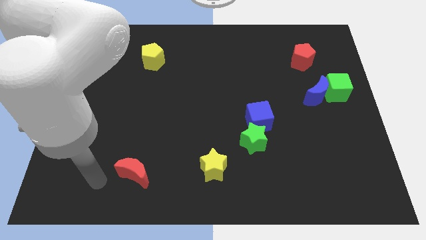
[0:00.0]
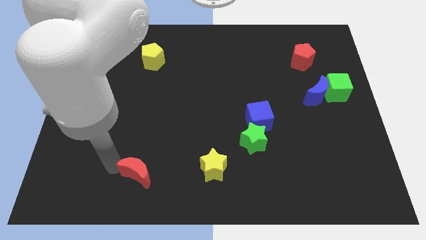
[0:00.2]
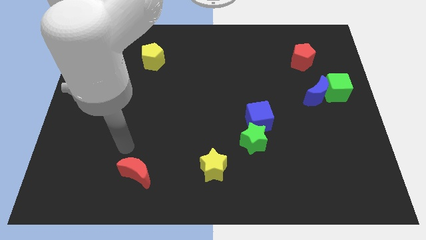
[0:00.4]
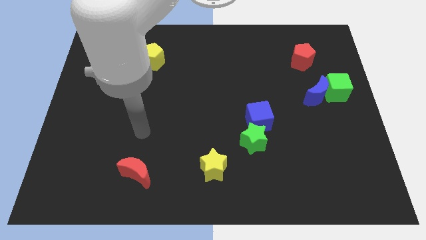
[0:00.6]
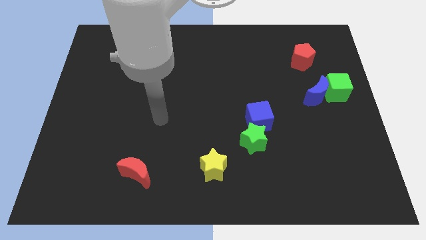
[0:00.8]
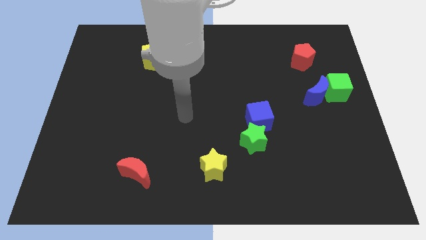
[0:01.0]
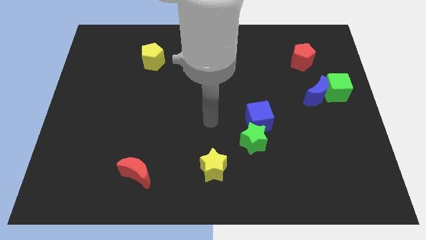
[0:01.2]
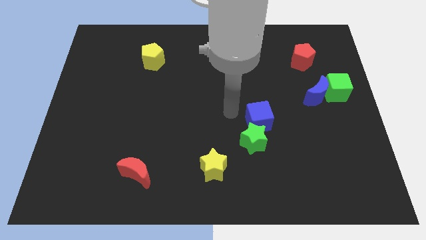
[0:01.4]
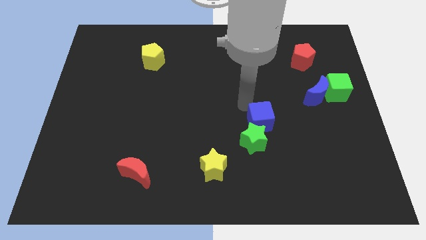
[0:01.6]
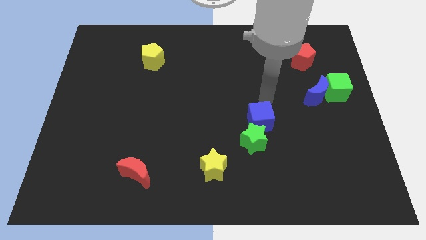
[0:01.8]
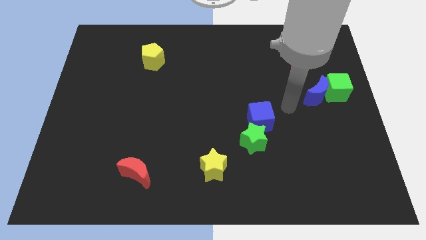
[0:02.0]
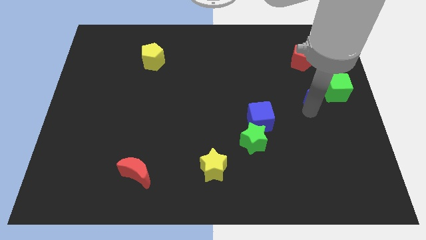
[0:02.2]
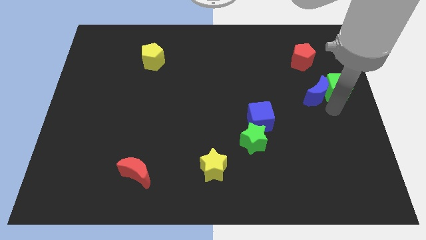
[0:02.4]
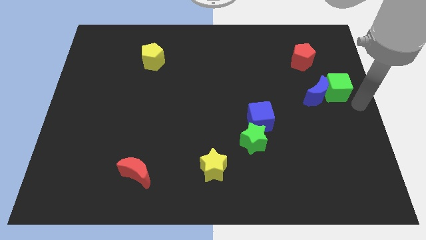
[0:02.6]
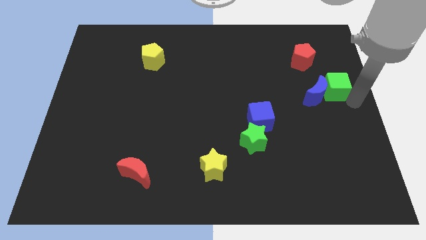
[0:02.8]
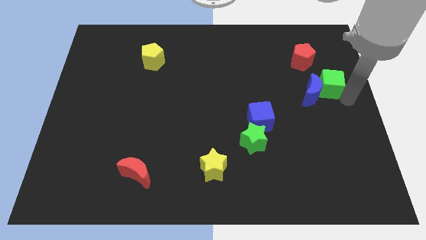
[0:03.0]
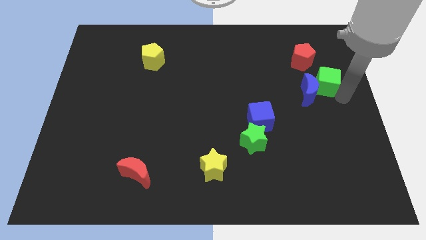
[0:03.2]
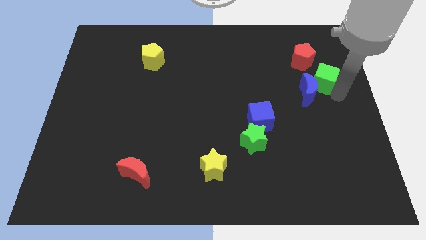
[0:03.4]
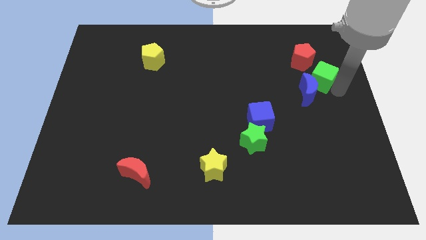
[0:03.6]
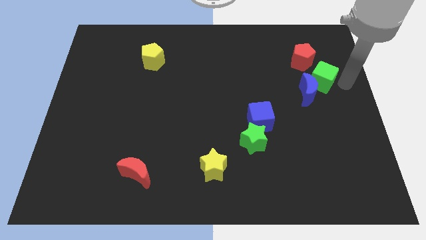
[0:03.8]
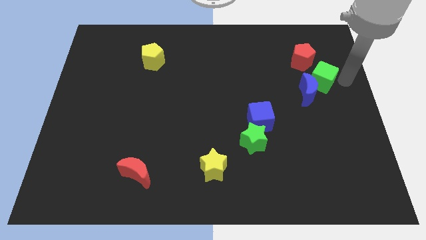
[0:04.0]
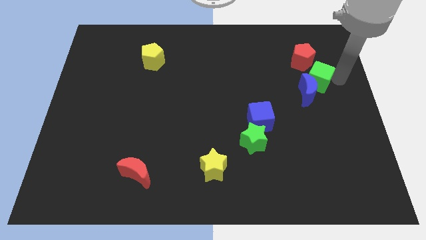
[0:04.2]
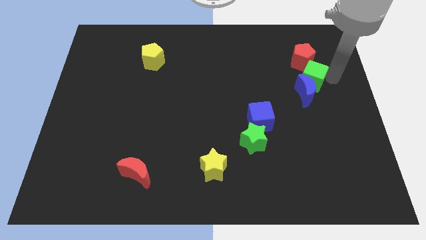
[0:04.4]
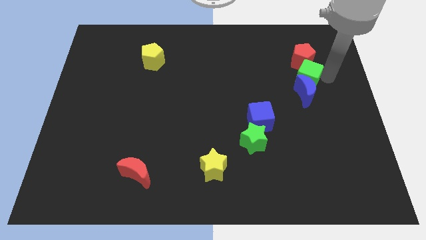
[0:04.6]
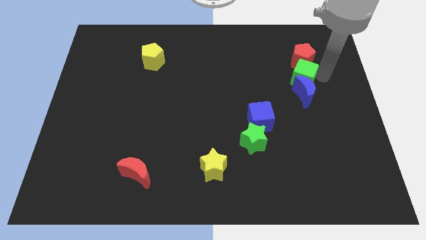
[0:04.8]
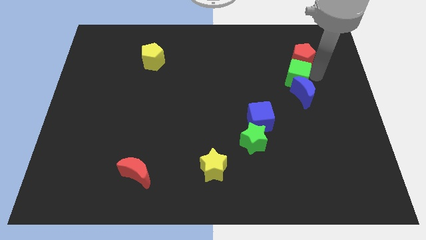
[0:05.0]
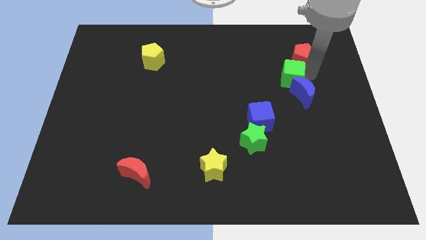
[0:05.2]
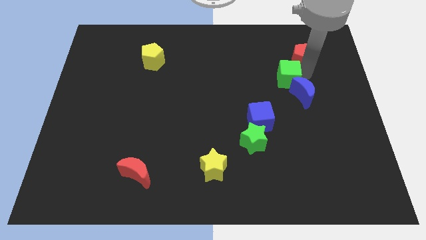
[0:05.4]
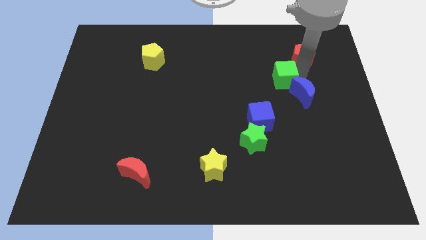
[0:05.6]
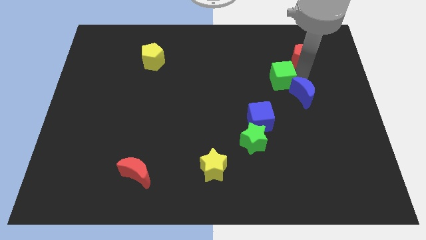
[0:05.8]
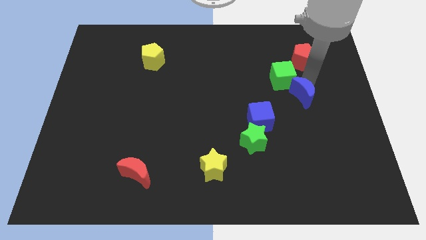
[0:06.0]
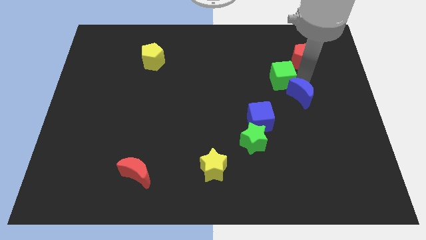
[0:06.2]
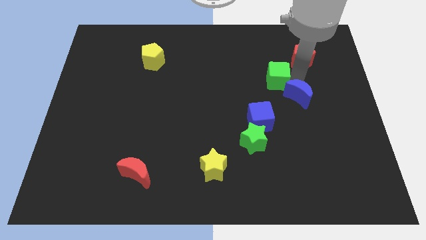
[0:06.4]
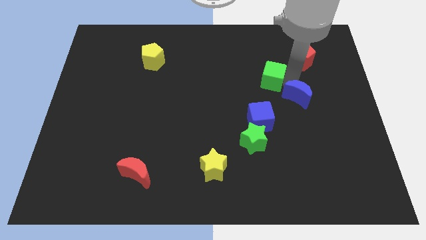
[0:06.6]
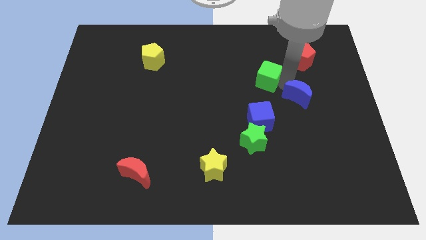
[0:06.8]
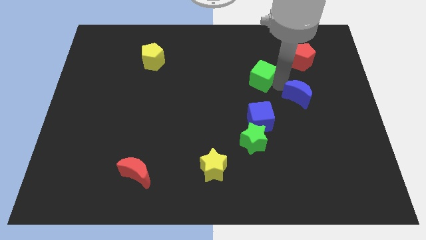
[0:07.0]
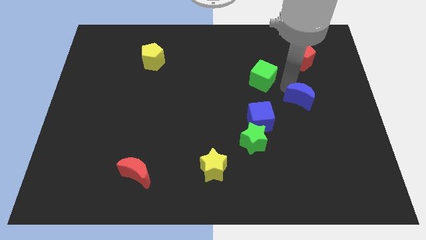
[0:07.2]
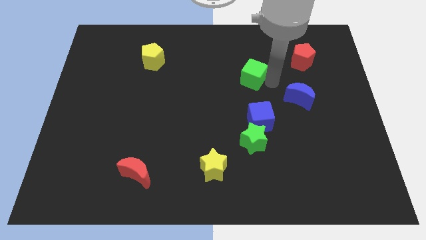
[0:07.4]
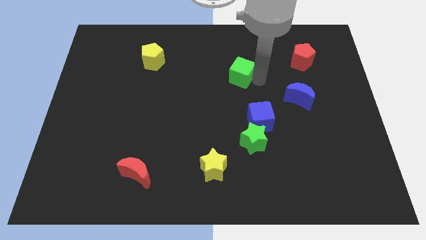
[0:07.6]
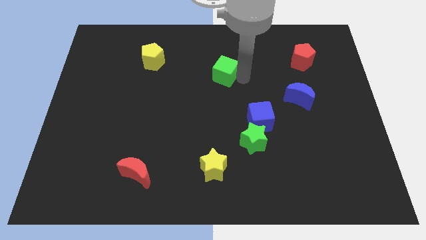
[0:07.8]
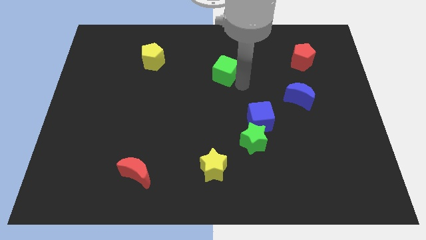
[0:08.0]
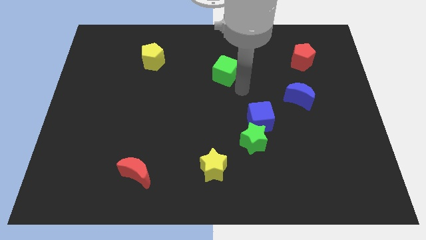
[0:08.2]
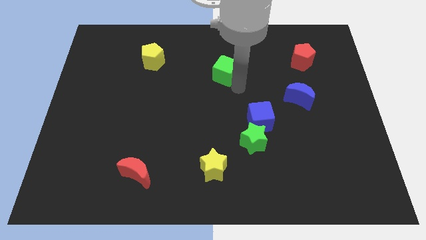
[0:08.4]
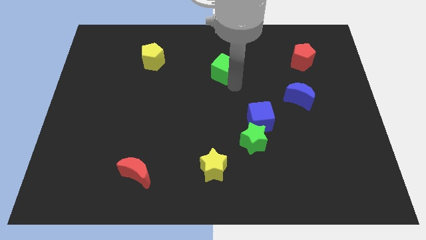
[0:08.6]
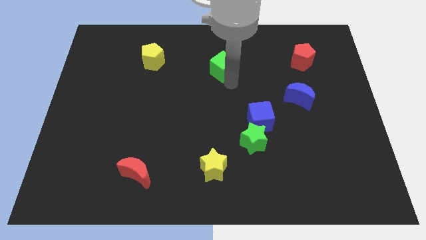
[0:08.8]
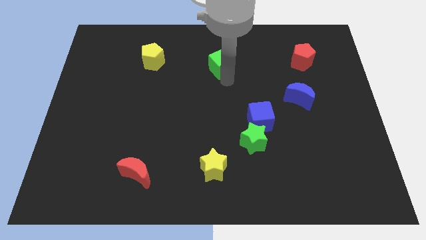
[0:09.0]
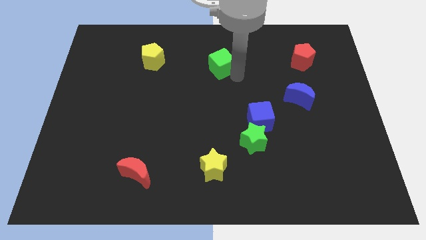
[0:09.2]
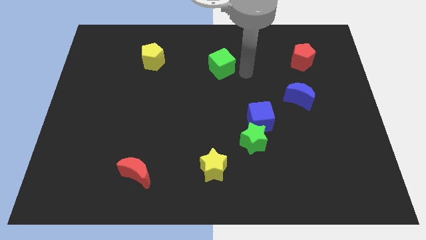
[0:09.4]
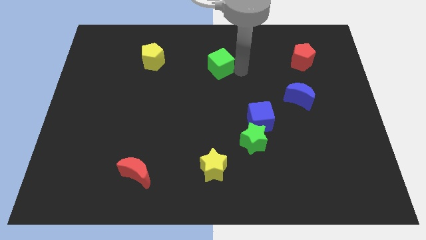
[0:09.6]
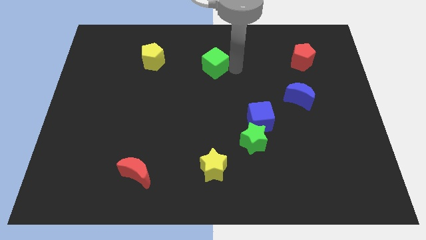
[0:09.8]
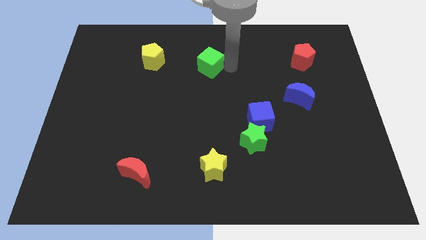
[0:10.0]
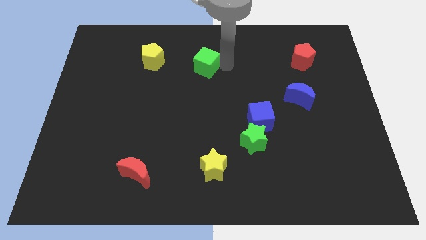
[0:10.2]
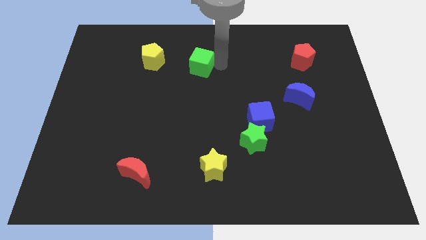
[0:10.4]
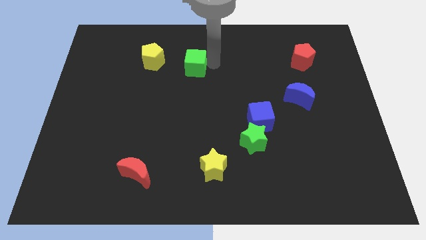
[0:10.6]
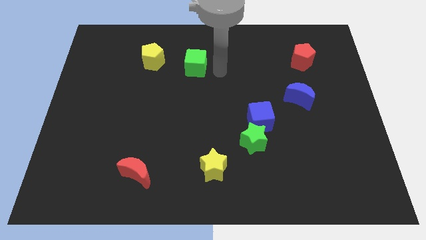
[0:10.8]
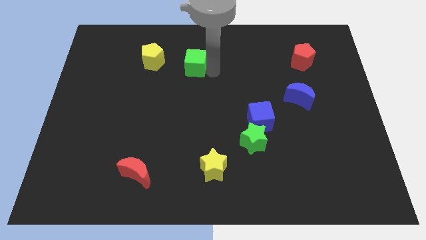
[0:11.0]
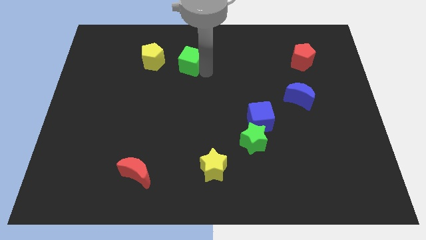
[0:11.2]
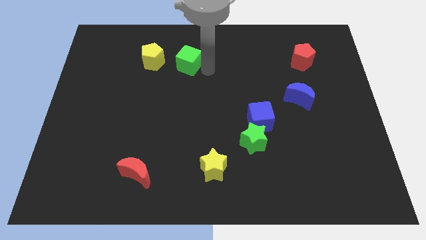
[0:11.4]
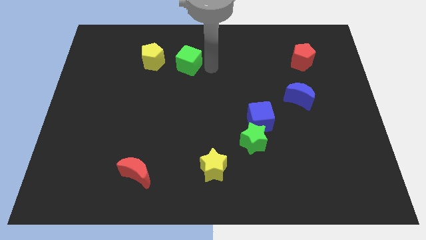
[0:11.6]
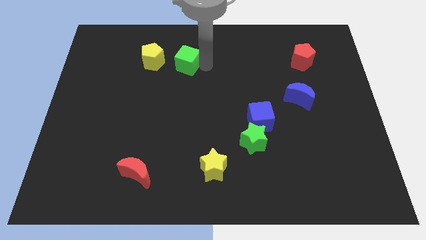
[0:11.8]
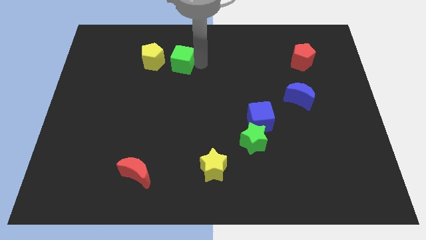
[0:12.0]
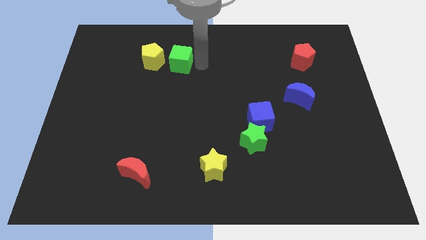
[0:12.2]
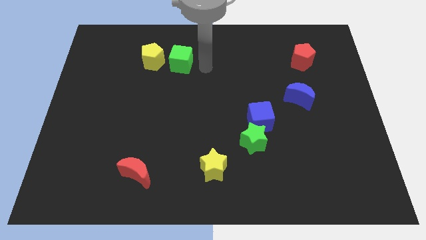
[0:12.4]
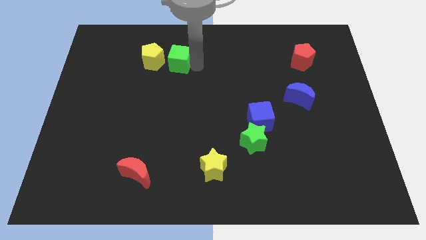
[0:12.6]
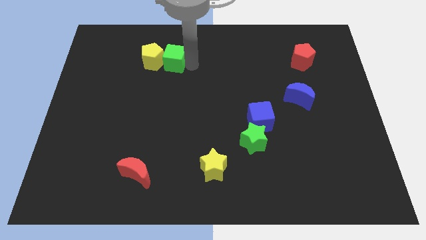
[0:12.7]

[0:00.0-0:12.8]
push the green cube to the yellow pentagon

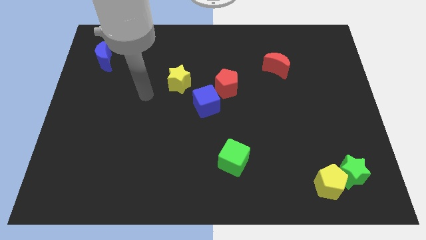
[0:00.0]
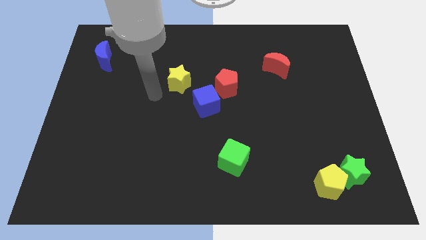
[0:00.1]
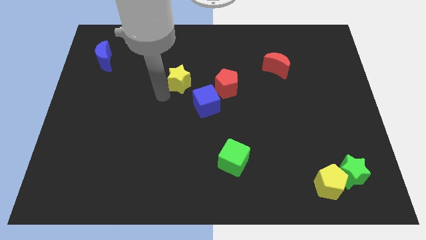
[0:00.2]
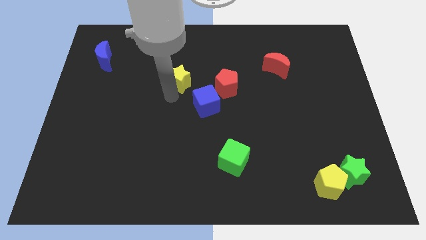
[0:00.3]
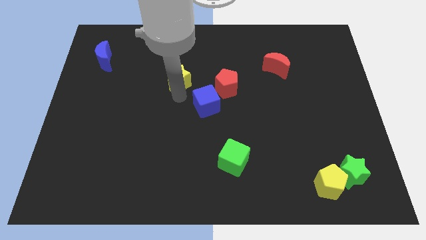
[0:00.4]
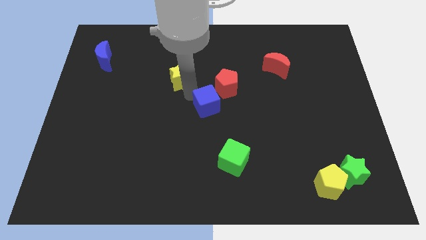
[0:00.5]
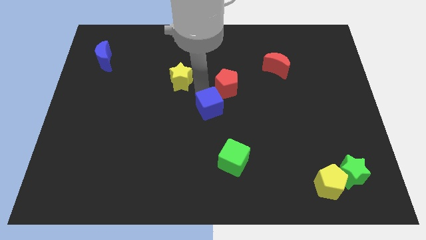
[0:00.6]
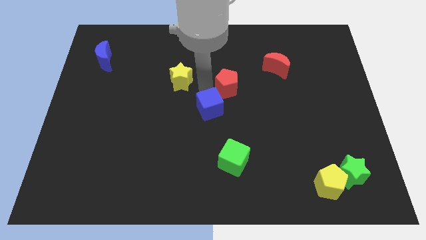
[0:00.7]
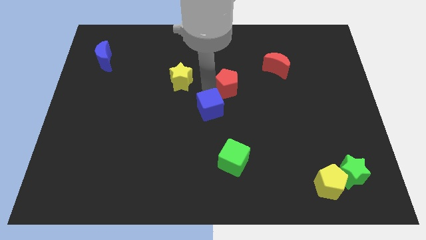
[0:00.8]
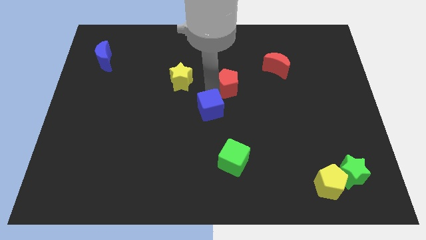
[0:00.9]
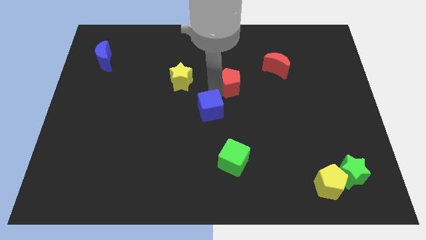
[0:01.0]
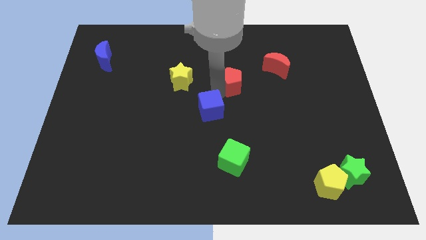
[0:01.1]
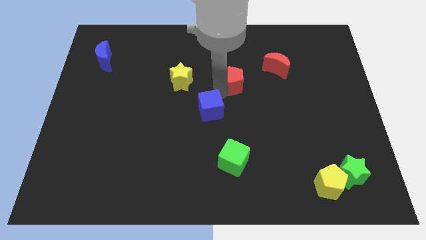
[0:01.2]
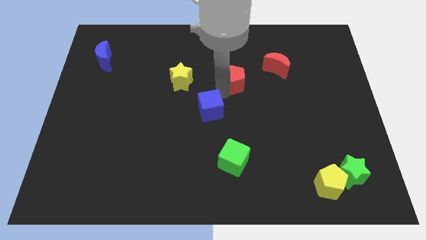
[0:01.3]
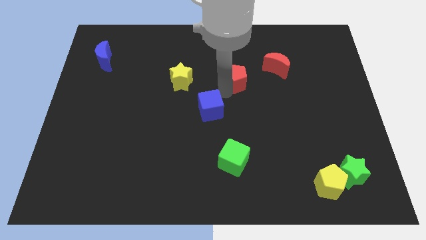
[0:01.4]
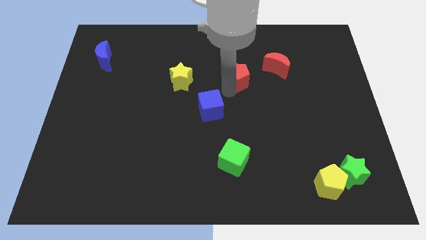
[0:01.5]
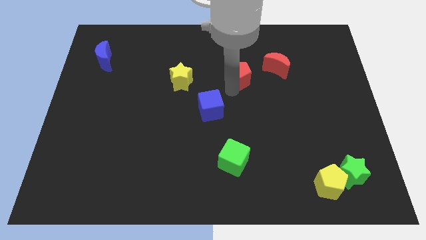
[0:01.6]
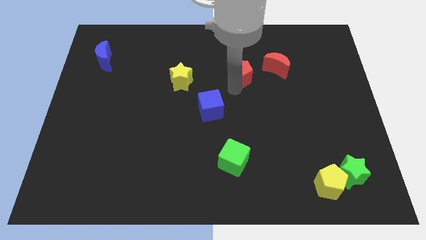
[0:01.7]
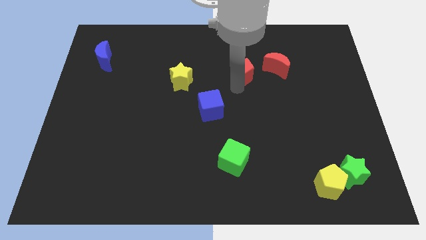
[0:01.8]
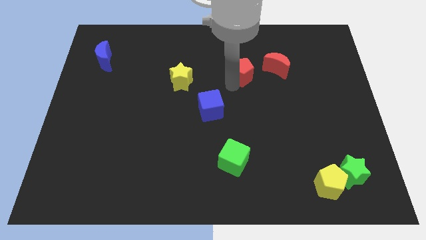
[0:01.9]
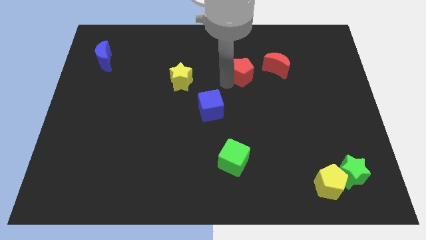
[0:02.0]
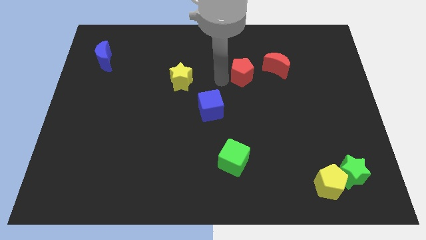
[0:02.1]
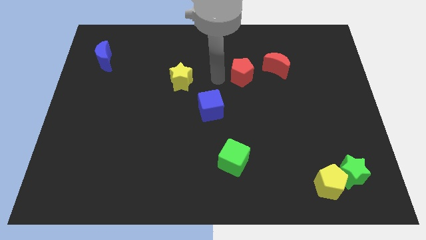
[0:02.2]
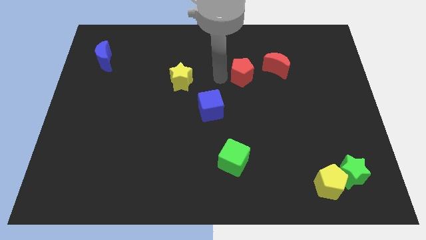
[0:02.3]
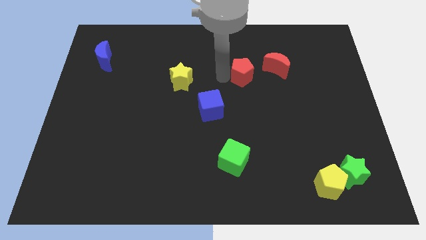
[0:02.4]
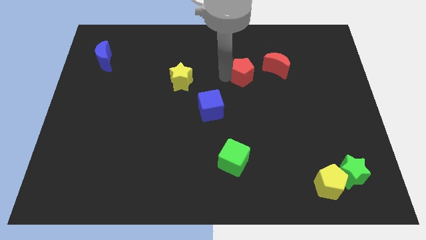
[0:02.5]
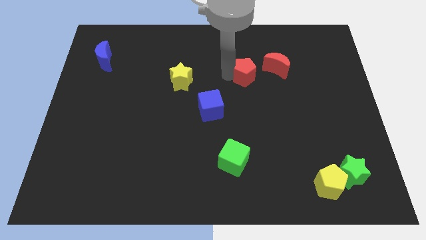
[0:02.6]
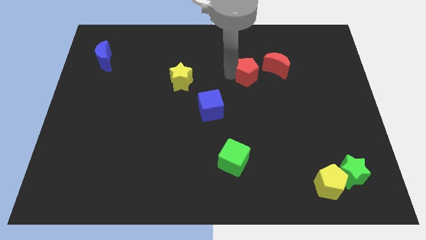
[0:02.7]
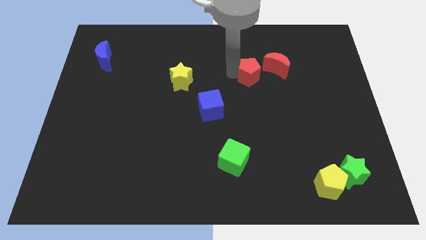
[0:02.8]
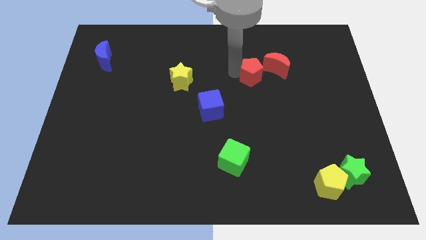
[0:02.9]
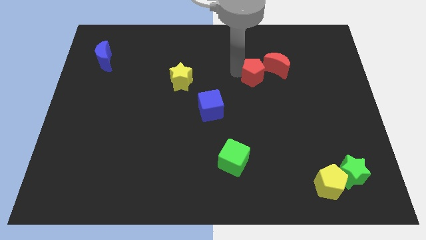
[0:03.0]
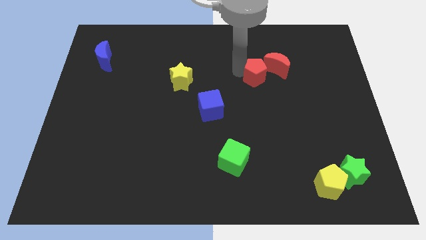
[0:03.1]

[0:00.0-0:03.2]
slide the red pentagon to the red moon
